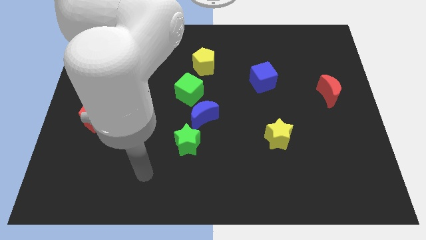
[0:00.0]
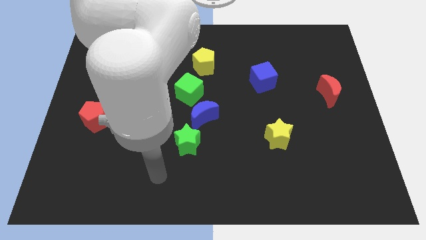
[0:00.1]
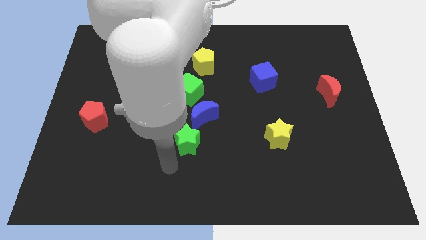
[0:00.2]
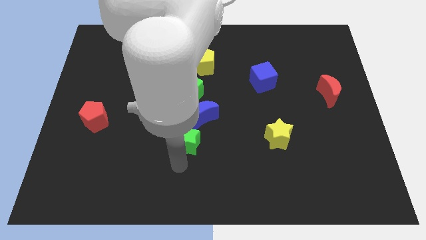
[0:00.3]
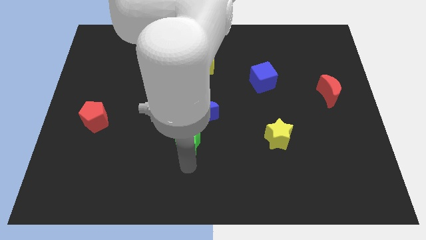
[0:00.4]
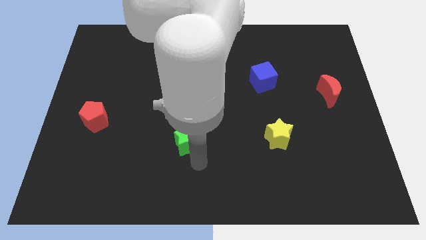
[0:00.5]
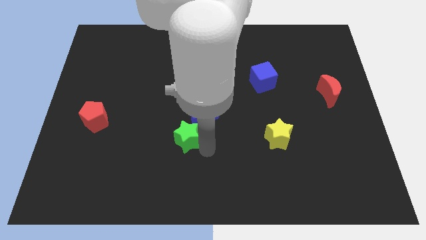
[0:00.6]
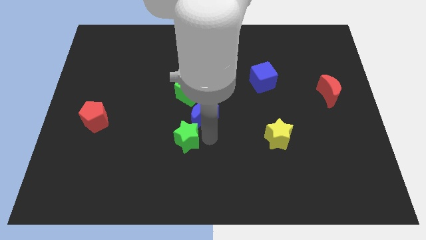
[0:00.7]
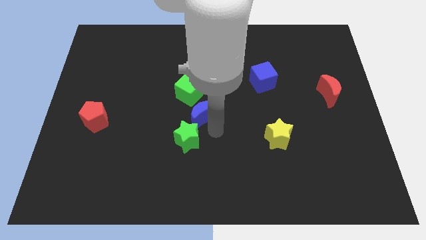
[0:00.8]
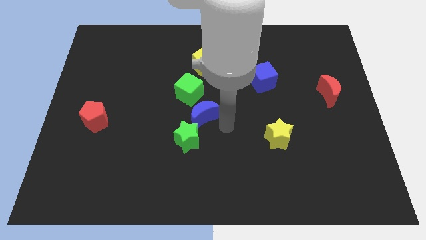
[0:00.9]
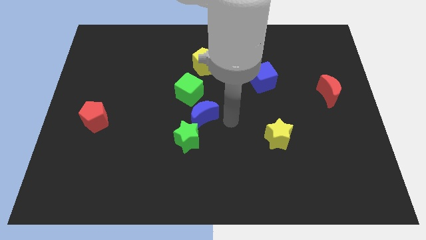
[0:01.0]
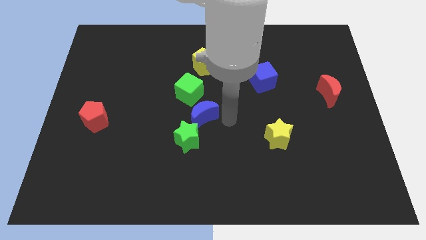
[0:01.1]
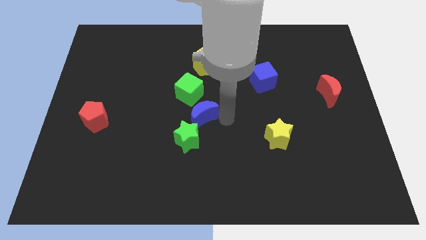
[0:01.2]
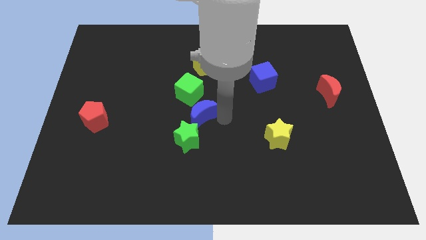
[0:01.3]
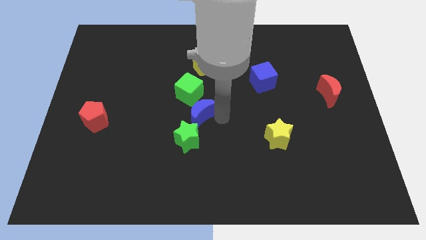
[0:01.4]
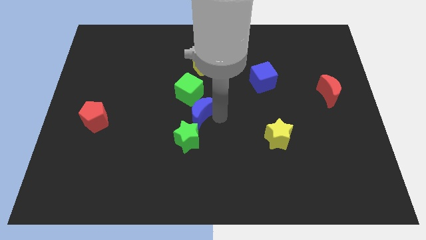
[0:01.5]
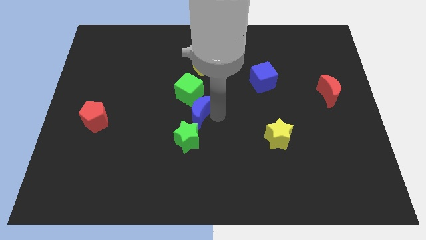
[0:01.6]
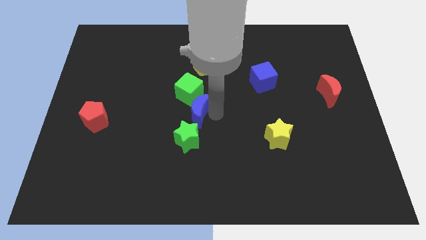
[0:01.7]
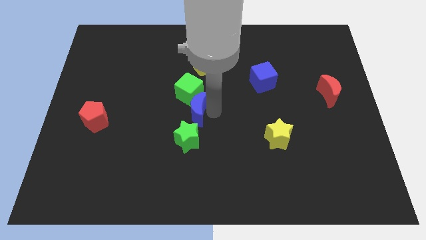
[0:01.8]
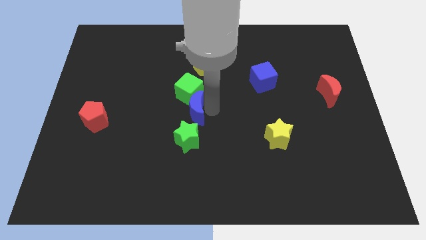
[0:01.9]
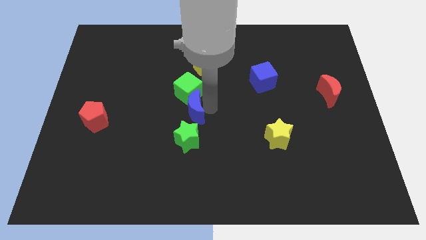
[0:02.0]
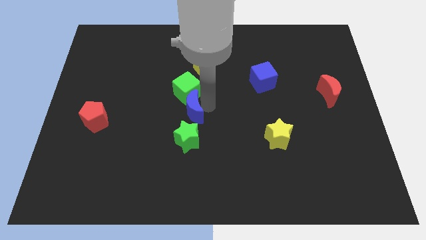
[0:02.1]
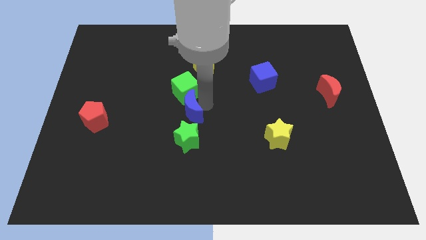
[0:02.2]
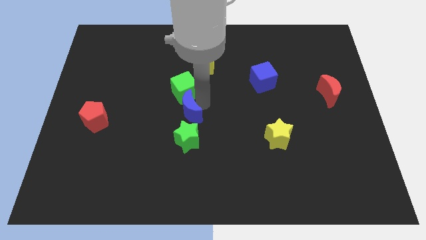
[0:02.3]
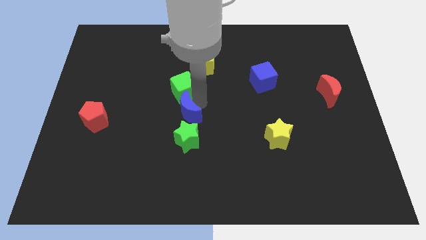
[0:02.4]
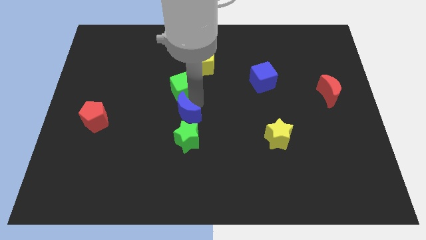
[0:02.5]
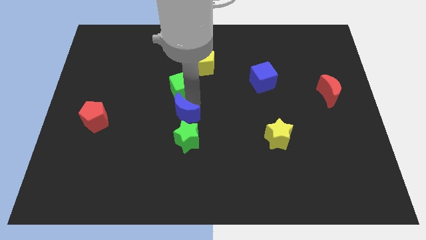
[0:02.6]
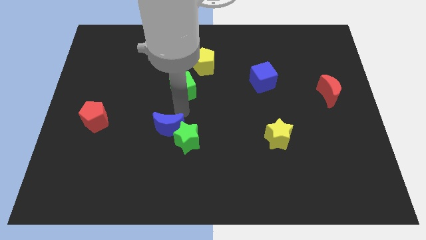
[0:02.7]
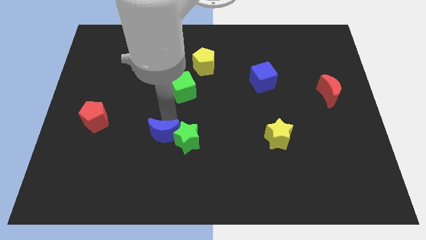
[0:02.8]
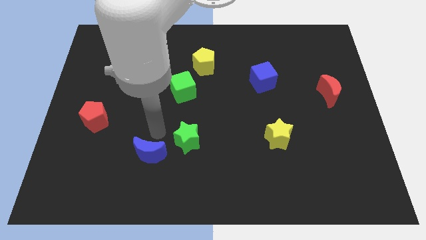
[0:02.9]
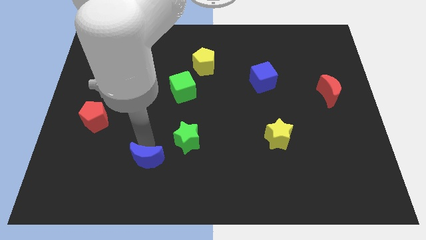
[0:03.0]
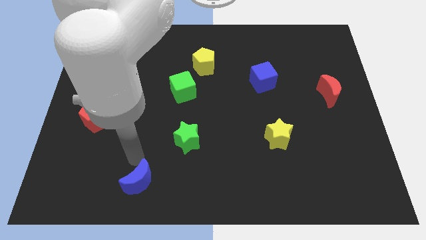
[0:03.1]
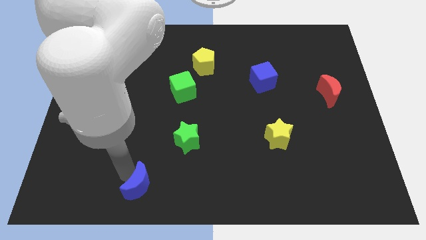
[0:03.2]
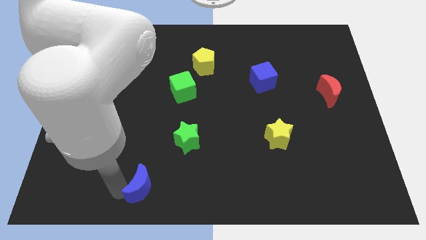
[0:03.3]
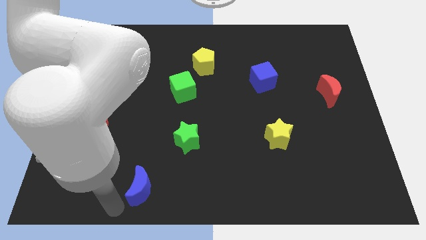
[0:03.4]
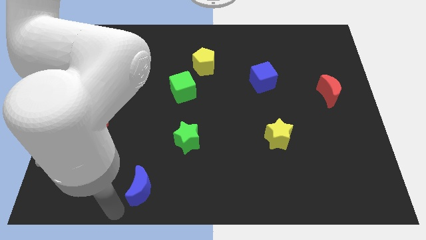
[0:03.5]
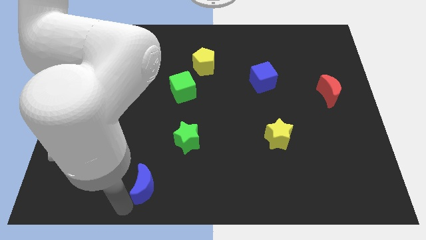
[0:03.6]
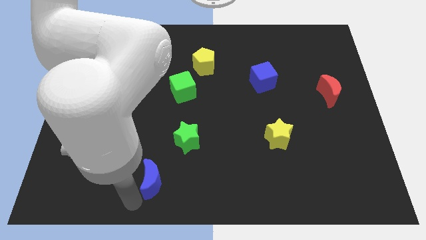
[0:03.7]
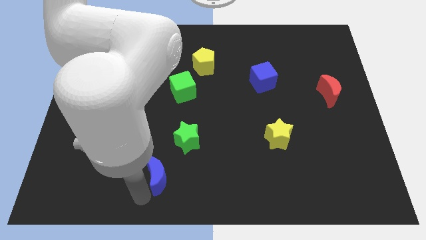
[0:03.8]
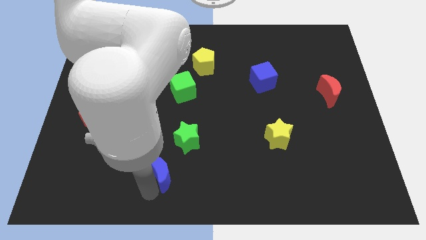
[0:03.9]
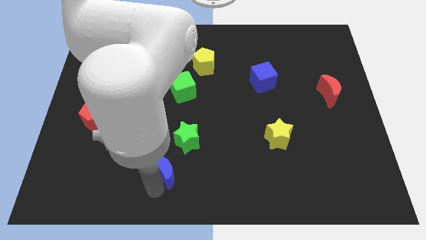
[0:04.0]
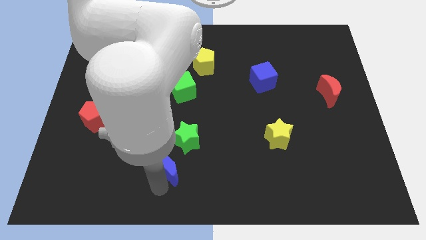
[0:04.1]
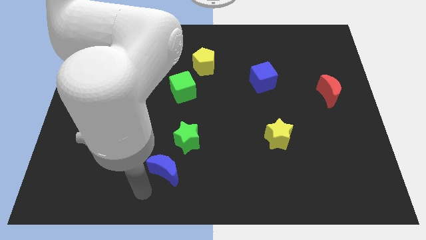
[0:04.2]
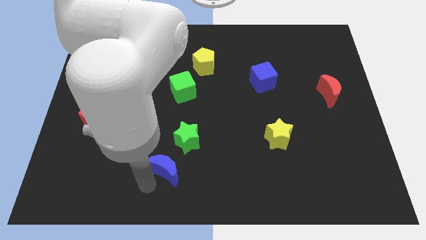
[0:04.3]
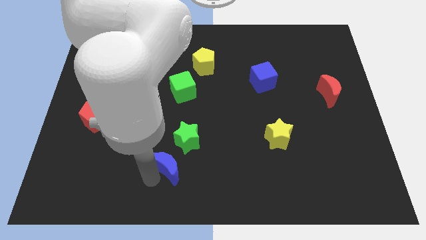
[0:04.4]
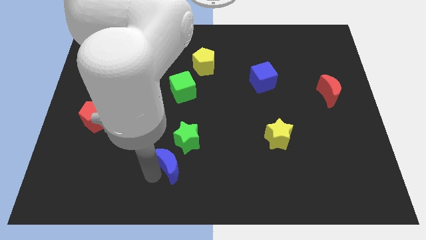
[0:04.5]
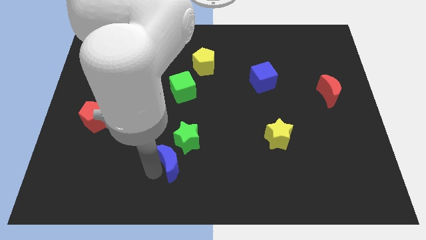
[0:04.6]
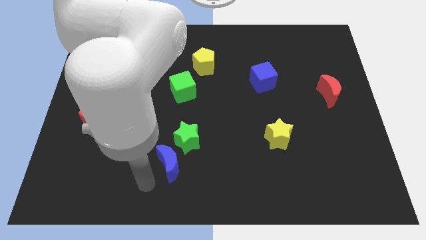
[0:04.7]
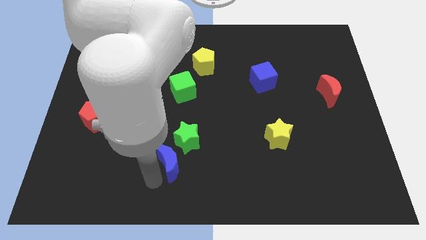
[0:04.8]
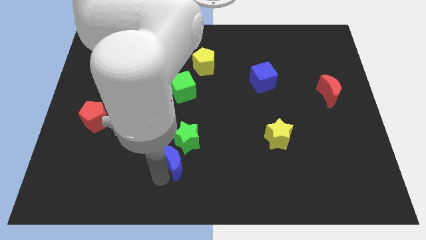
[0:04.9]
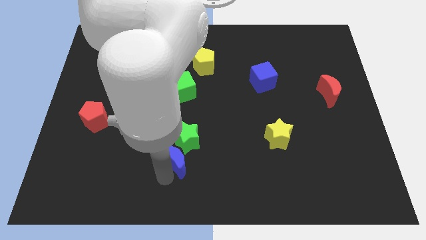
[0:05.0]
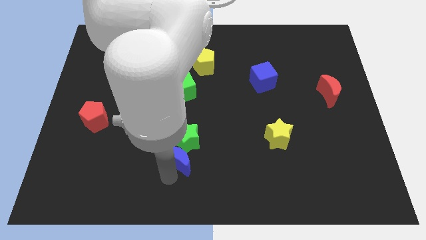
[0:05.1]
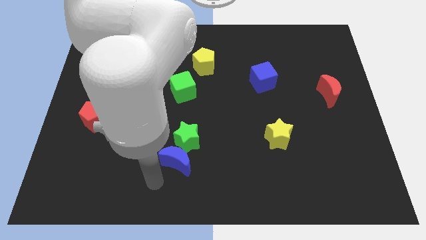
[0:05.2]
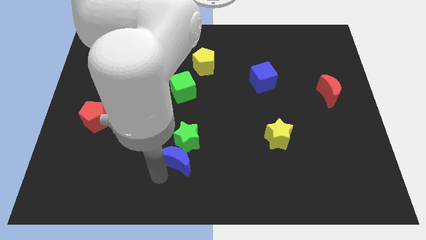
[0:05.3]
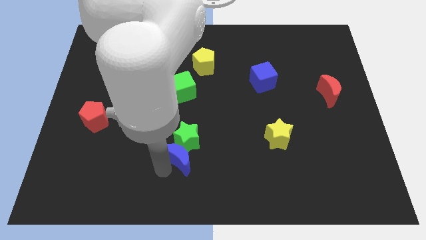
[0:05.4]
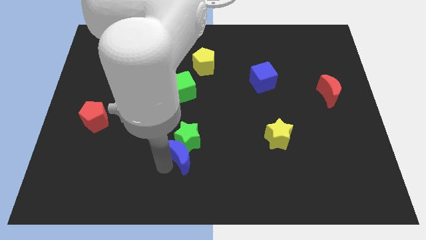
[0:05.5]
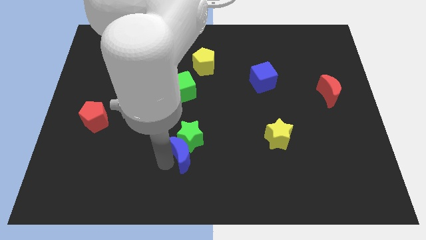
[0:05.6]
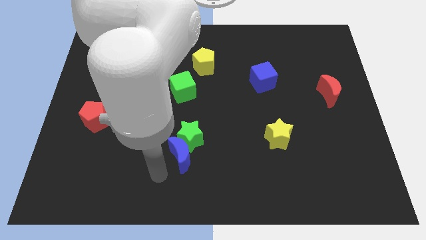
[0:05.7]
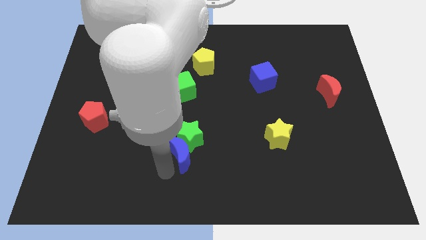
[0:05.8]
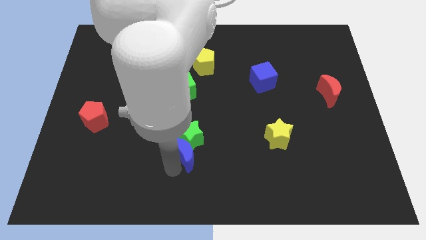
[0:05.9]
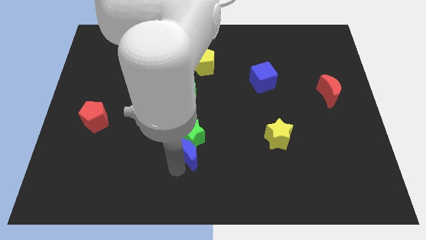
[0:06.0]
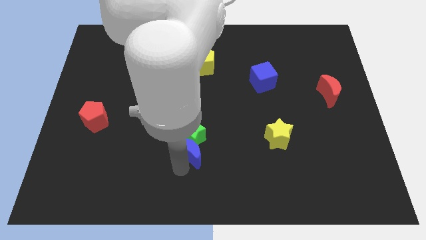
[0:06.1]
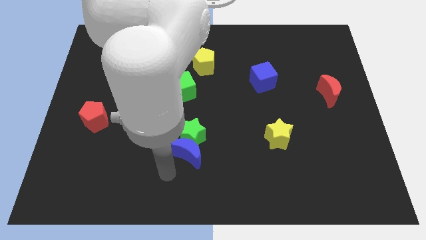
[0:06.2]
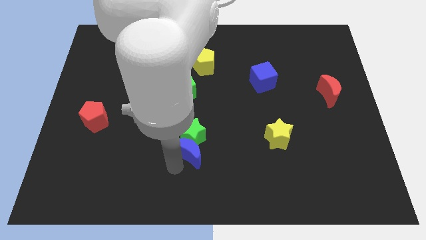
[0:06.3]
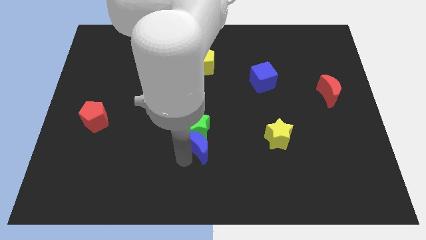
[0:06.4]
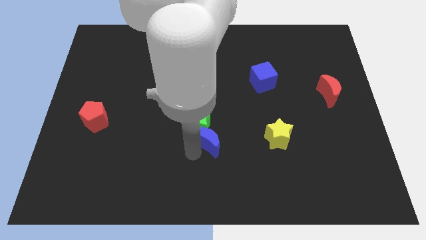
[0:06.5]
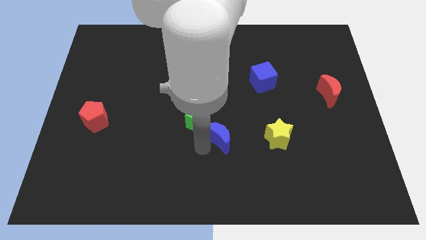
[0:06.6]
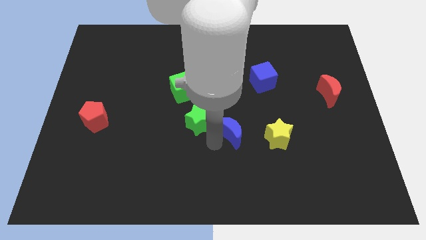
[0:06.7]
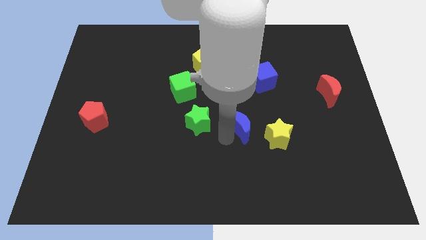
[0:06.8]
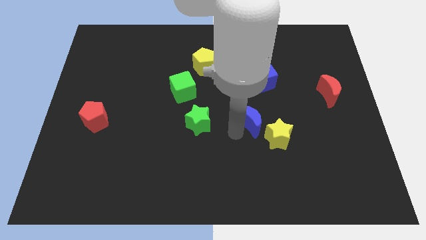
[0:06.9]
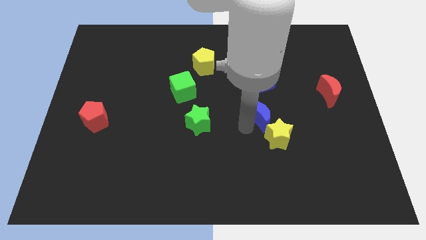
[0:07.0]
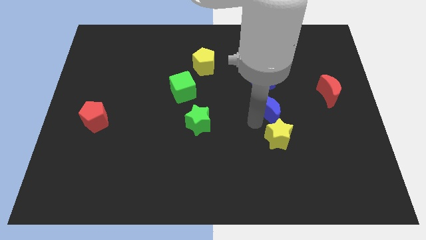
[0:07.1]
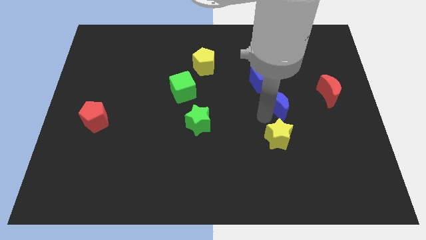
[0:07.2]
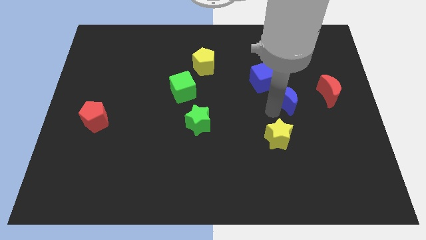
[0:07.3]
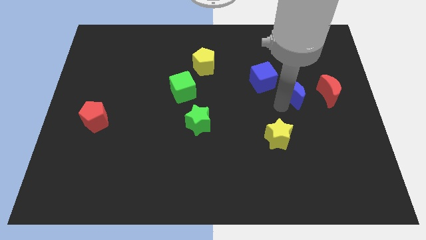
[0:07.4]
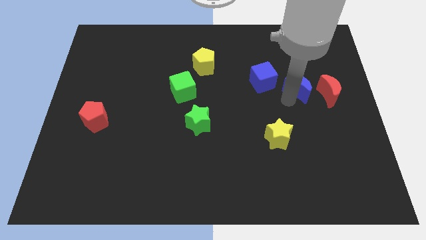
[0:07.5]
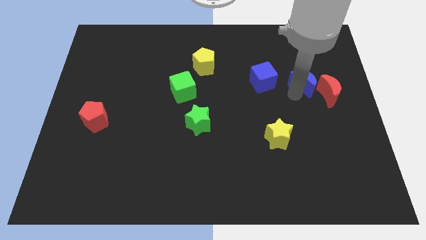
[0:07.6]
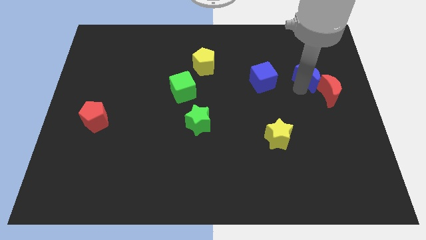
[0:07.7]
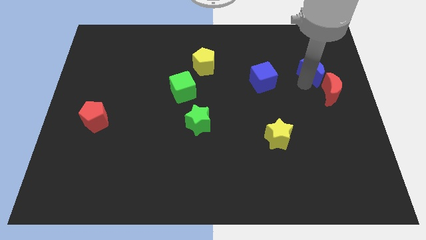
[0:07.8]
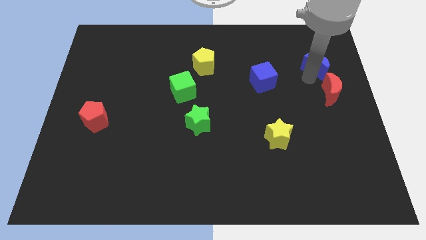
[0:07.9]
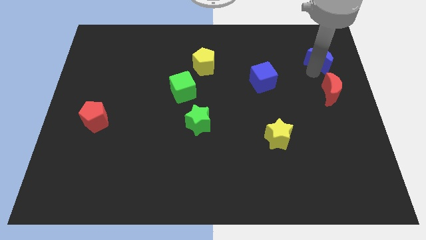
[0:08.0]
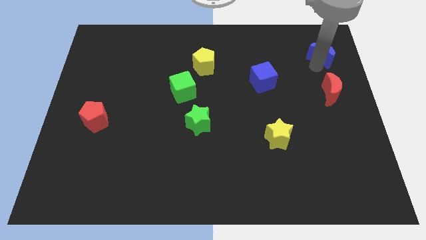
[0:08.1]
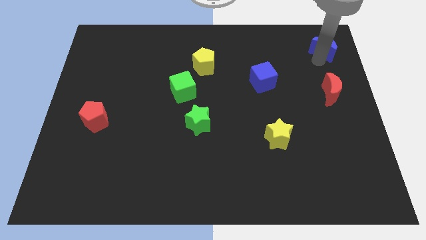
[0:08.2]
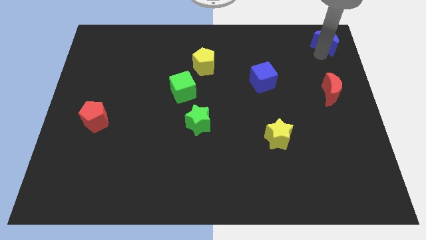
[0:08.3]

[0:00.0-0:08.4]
move the blue moon to the top right corner
